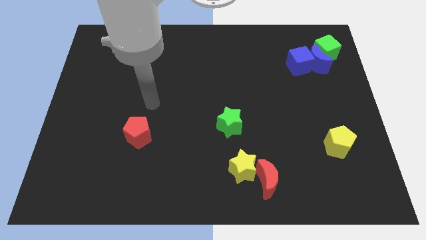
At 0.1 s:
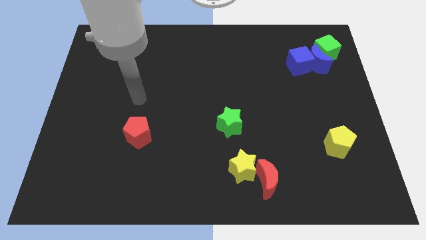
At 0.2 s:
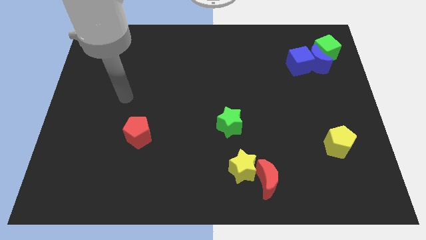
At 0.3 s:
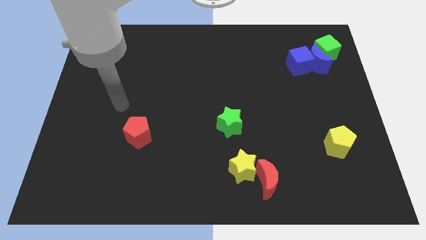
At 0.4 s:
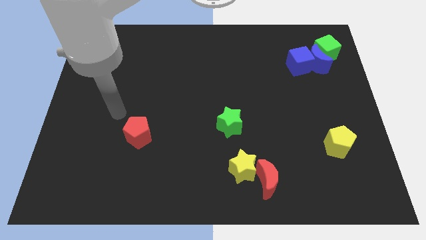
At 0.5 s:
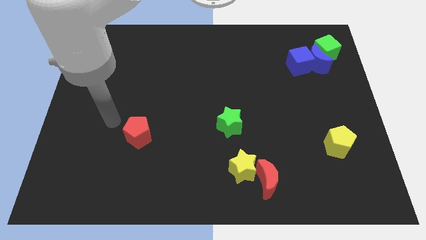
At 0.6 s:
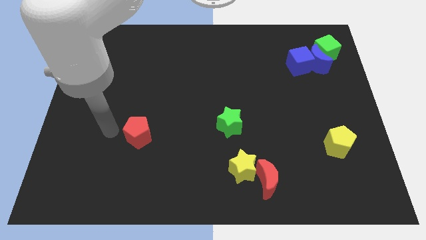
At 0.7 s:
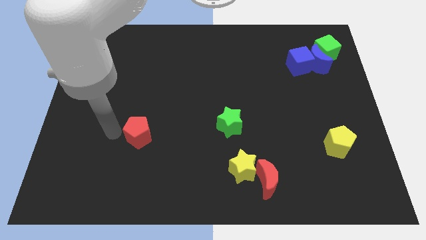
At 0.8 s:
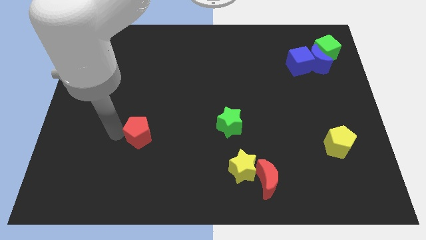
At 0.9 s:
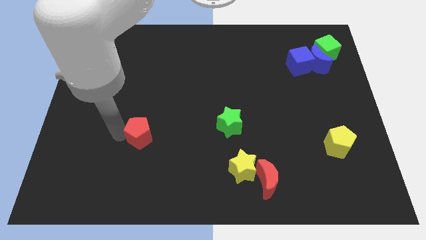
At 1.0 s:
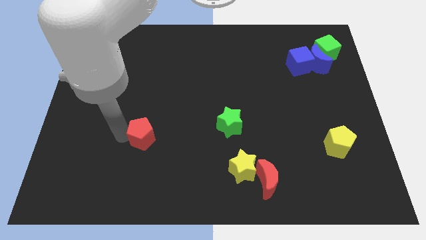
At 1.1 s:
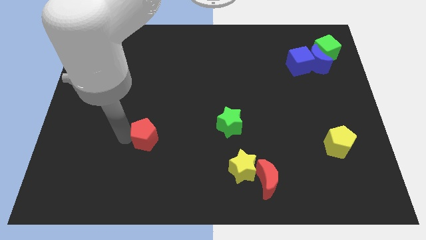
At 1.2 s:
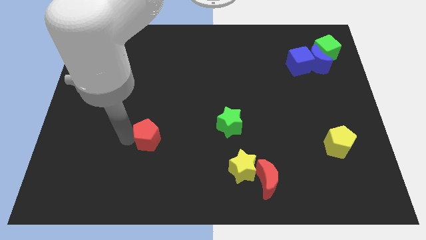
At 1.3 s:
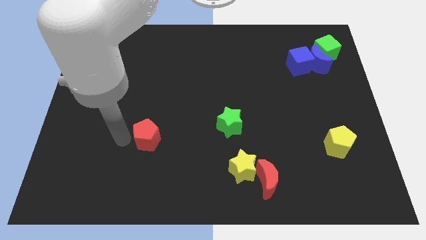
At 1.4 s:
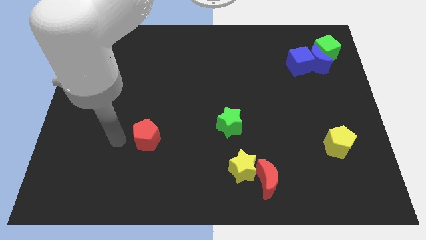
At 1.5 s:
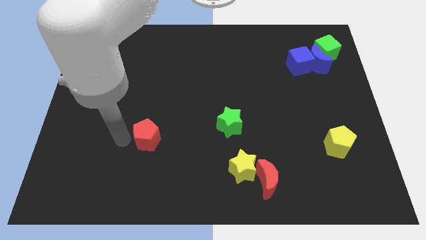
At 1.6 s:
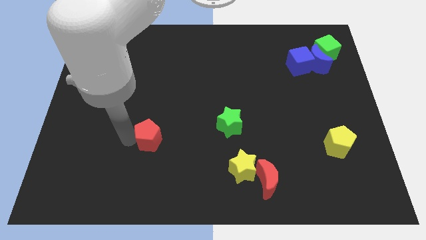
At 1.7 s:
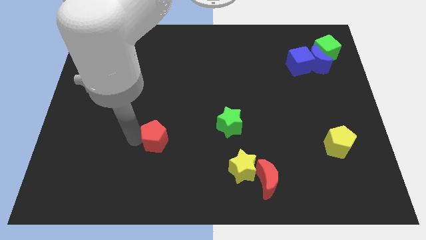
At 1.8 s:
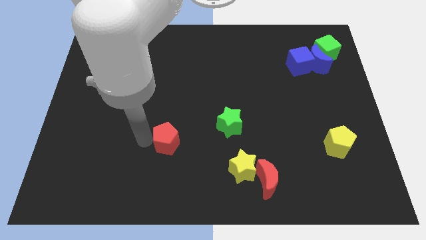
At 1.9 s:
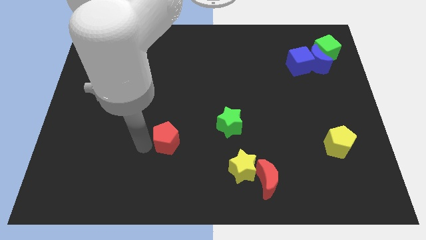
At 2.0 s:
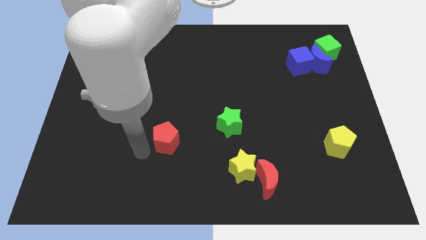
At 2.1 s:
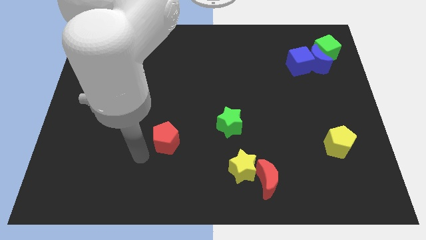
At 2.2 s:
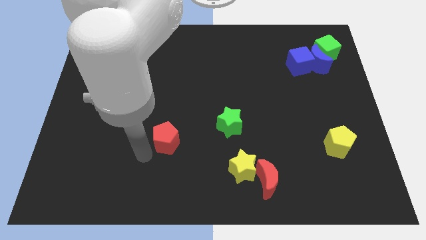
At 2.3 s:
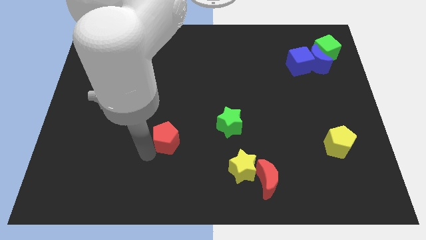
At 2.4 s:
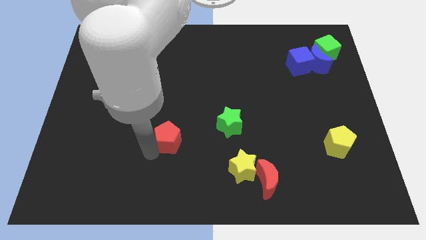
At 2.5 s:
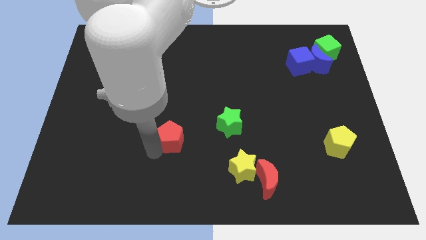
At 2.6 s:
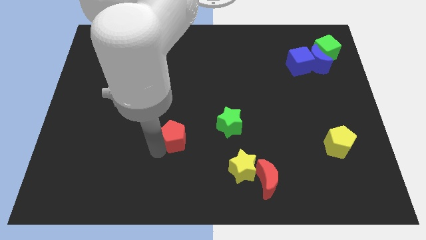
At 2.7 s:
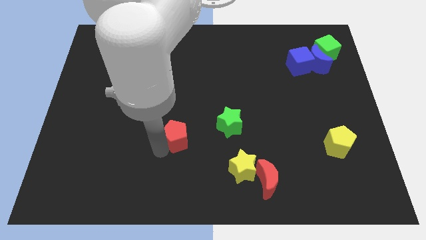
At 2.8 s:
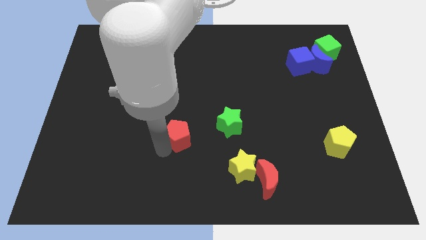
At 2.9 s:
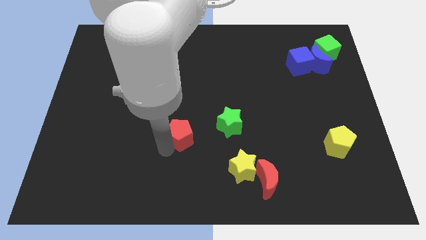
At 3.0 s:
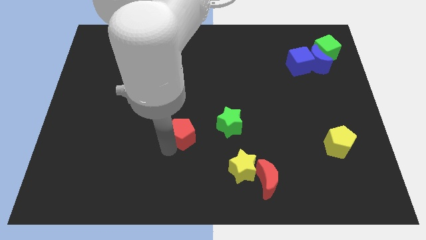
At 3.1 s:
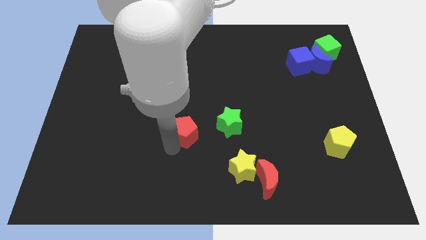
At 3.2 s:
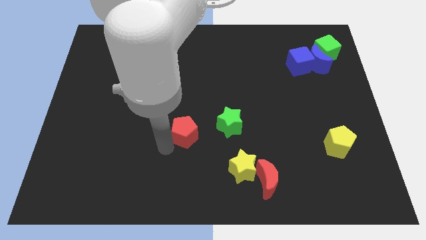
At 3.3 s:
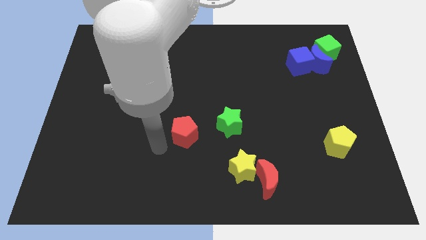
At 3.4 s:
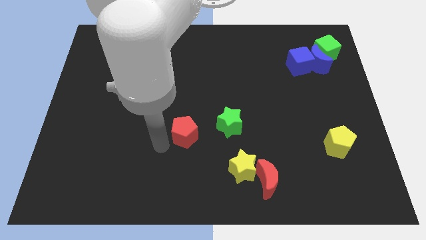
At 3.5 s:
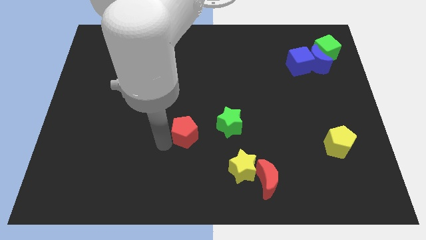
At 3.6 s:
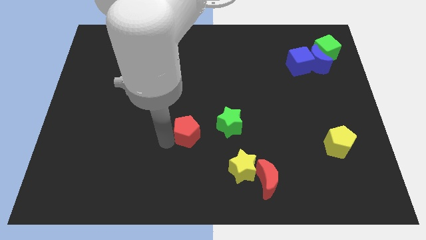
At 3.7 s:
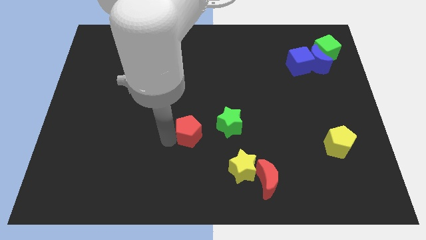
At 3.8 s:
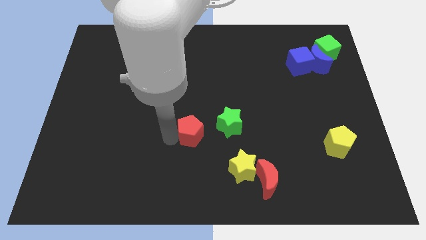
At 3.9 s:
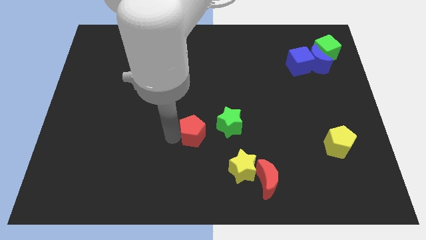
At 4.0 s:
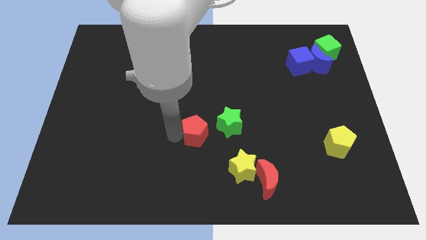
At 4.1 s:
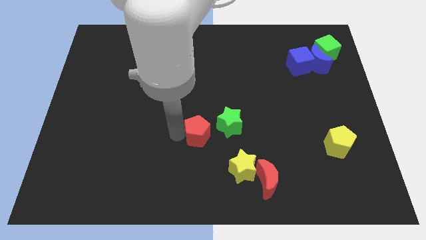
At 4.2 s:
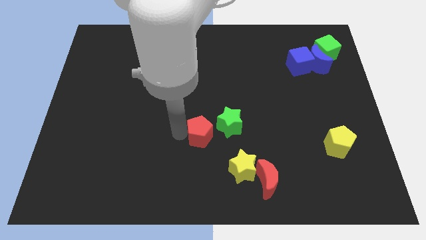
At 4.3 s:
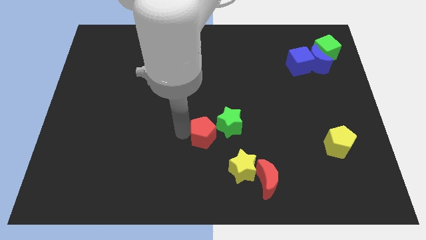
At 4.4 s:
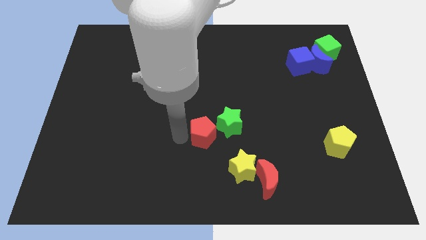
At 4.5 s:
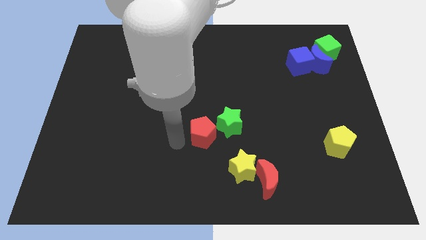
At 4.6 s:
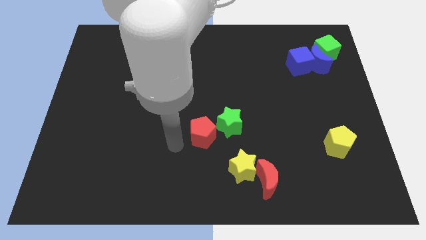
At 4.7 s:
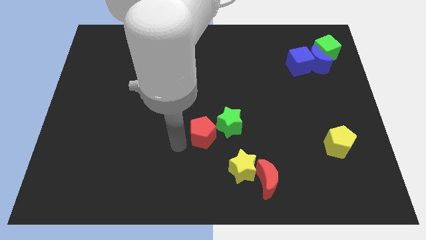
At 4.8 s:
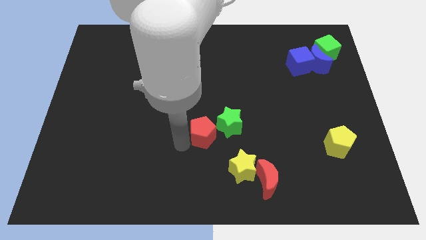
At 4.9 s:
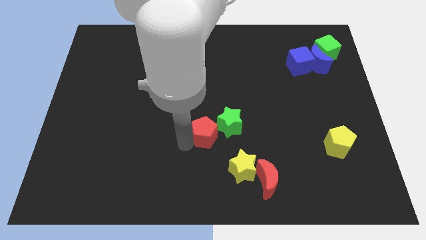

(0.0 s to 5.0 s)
move the red pentagon close to the green star

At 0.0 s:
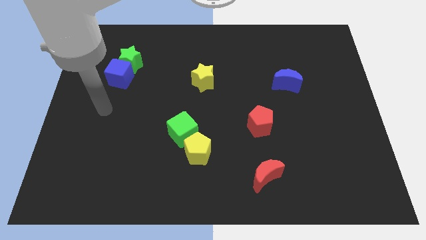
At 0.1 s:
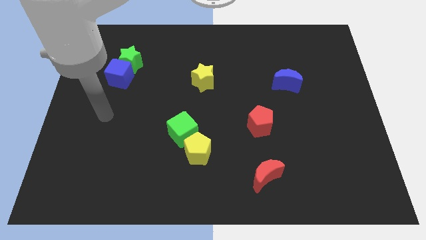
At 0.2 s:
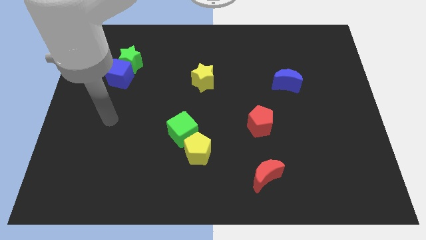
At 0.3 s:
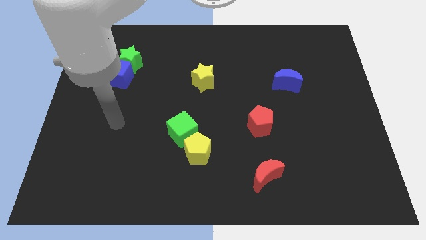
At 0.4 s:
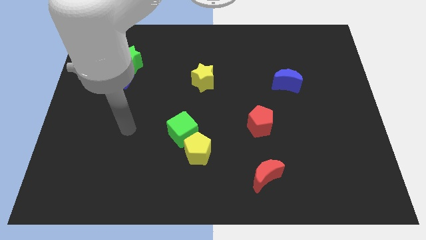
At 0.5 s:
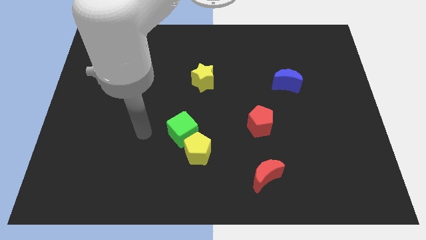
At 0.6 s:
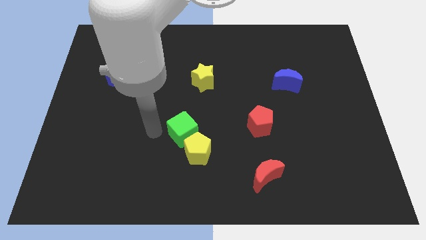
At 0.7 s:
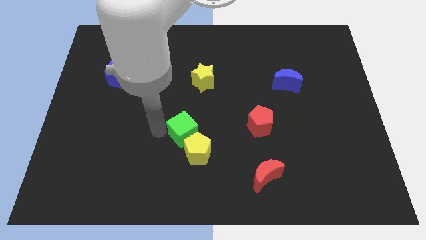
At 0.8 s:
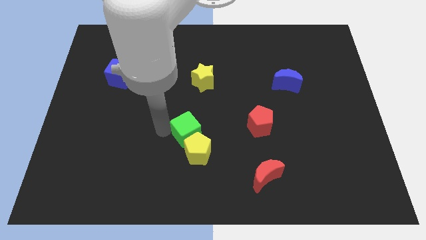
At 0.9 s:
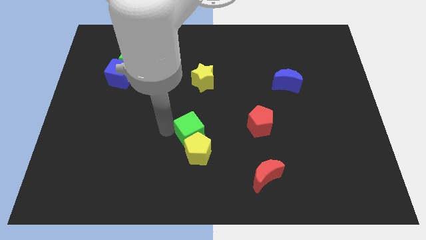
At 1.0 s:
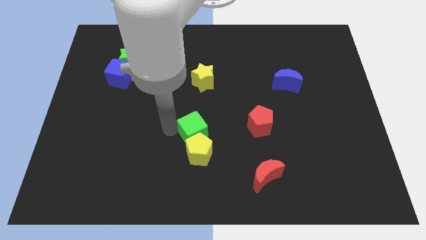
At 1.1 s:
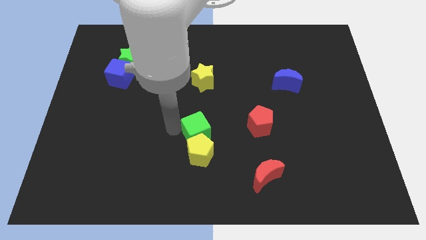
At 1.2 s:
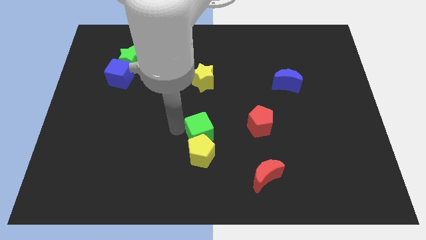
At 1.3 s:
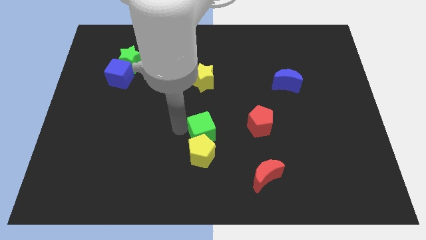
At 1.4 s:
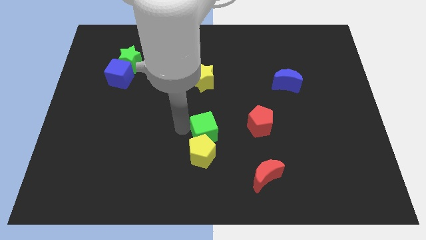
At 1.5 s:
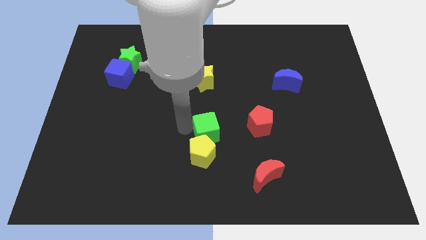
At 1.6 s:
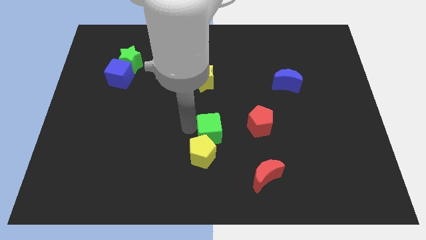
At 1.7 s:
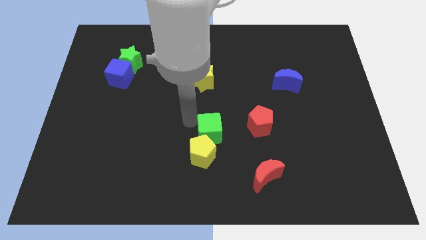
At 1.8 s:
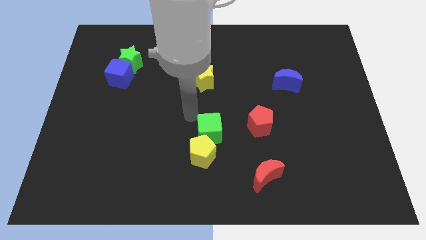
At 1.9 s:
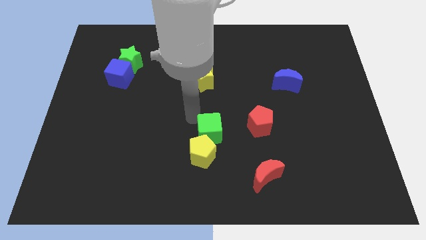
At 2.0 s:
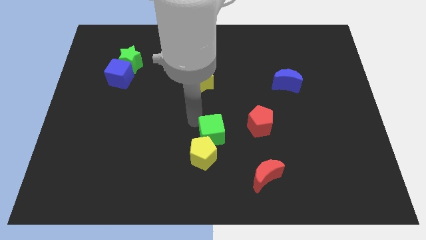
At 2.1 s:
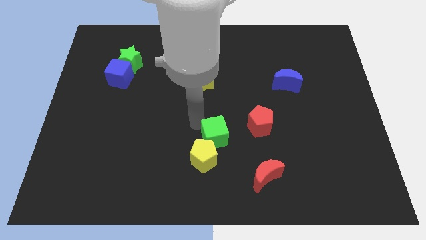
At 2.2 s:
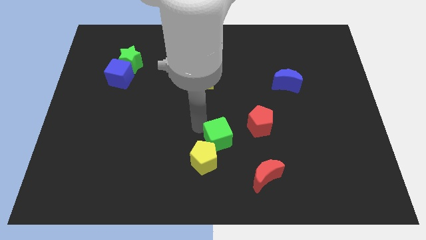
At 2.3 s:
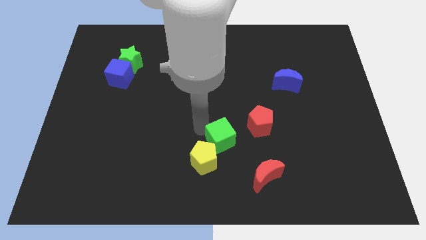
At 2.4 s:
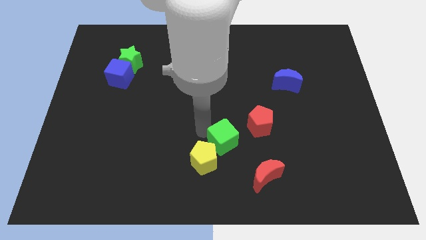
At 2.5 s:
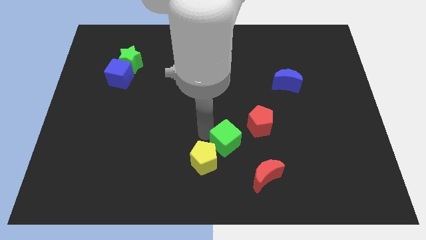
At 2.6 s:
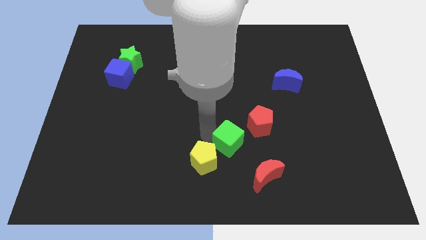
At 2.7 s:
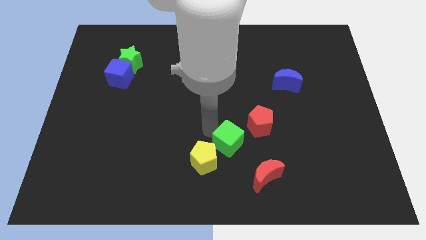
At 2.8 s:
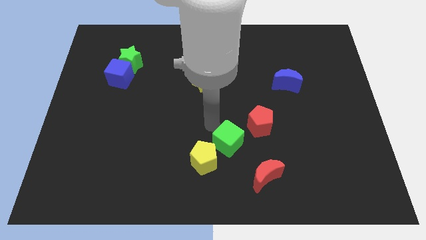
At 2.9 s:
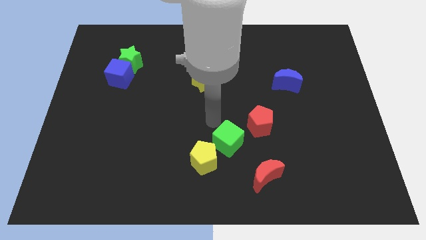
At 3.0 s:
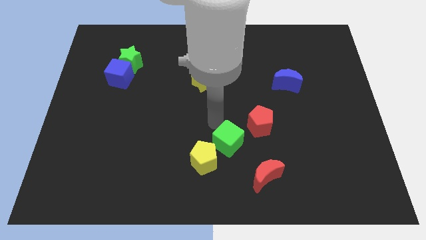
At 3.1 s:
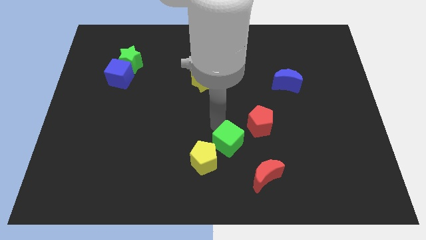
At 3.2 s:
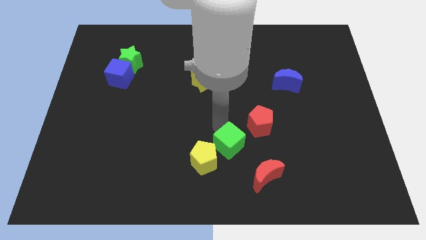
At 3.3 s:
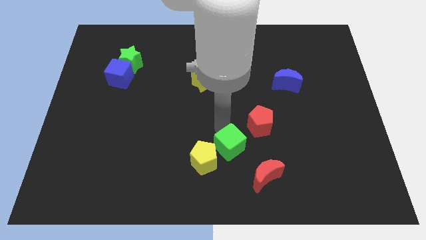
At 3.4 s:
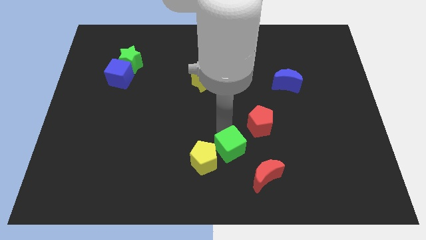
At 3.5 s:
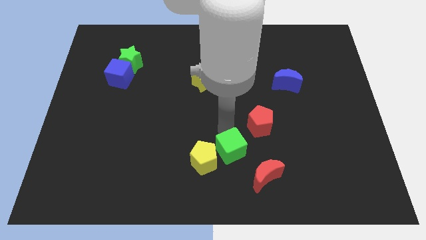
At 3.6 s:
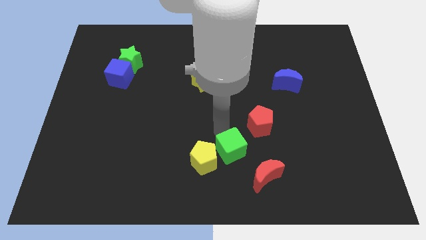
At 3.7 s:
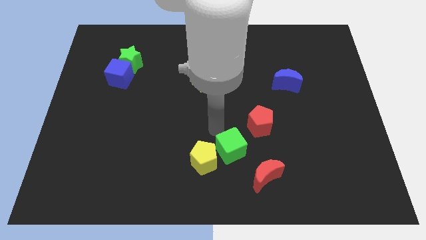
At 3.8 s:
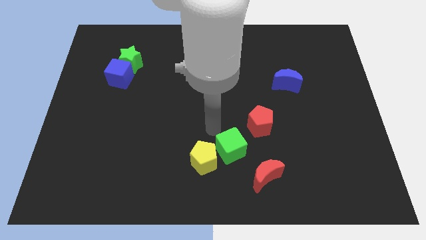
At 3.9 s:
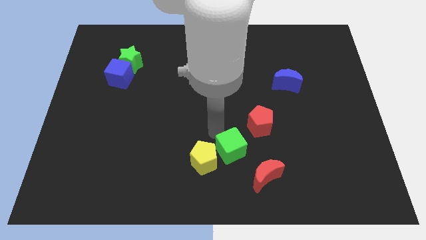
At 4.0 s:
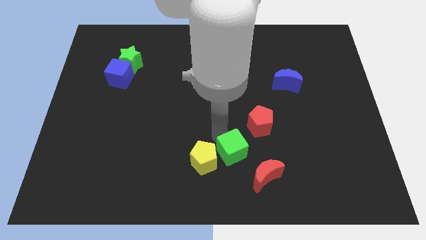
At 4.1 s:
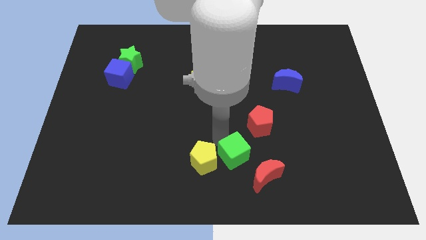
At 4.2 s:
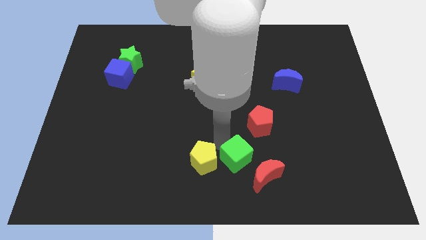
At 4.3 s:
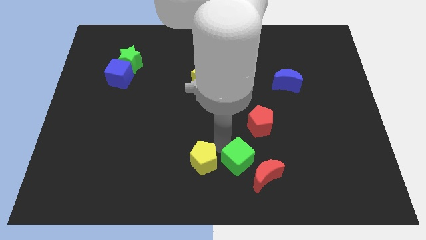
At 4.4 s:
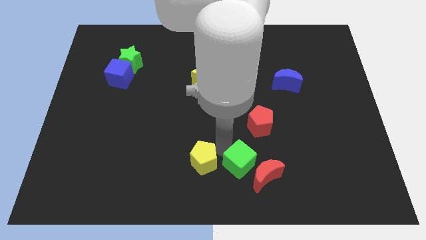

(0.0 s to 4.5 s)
put the green cube towards the red moon
